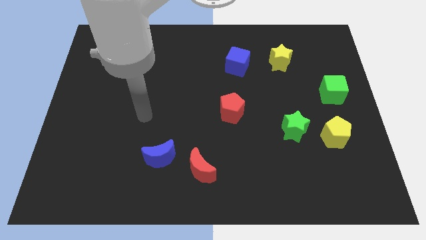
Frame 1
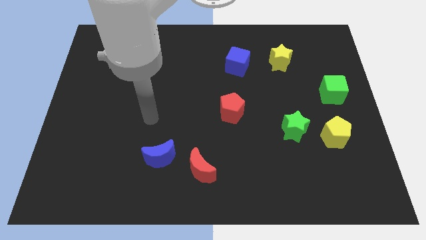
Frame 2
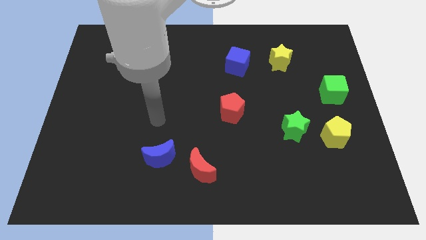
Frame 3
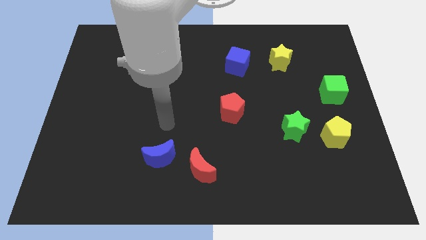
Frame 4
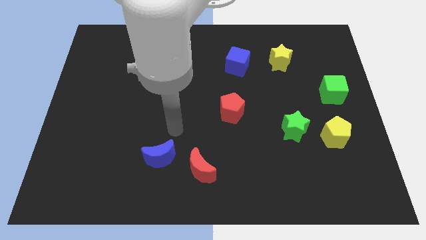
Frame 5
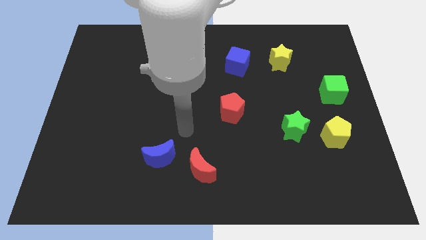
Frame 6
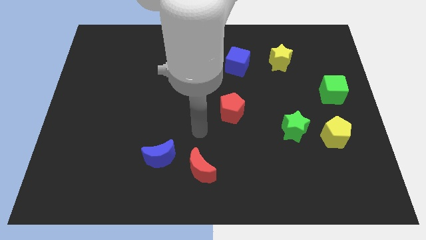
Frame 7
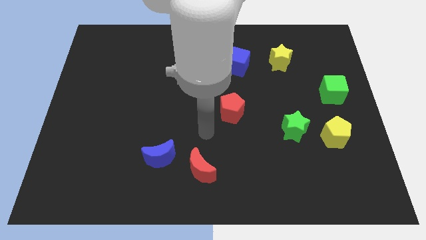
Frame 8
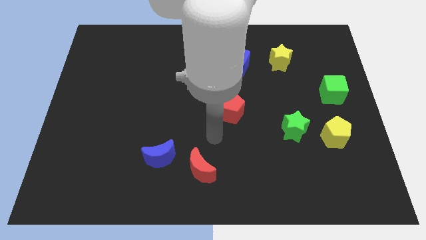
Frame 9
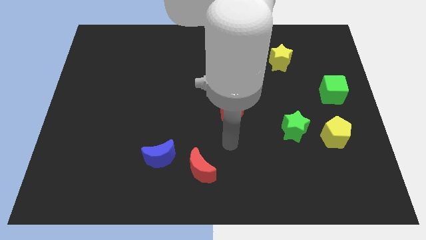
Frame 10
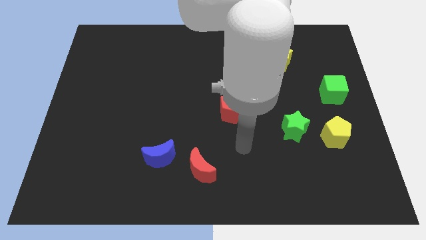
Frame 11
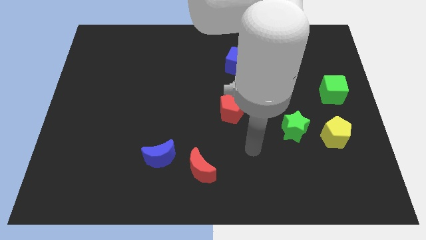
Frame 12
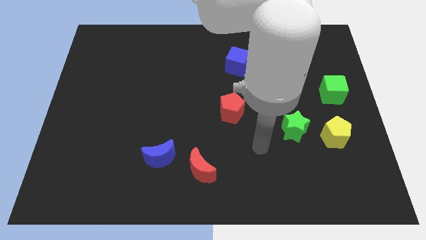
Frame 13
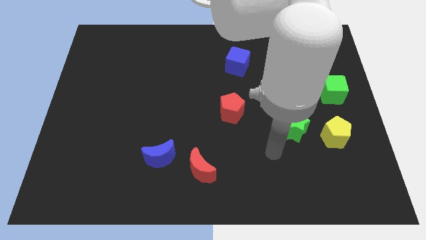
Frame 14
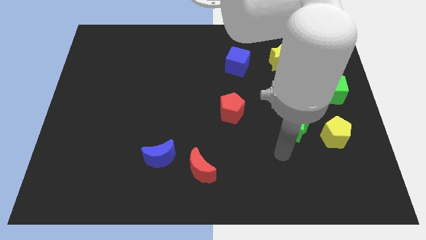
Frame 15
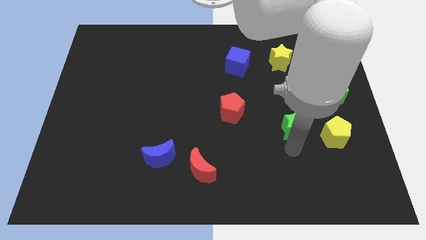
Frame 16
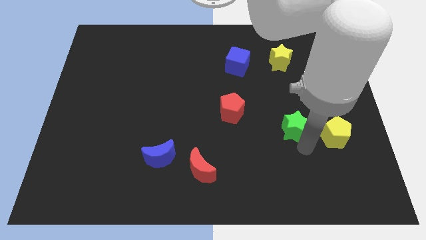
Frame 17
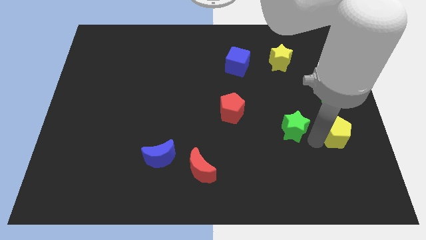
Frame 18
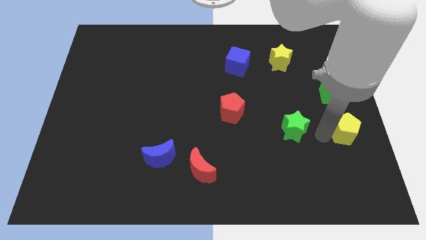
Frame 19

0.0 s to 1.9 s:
move the green star away from the yellow pentagon

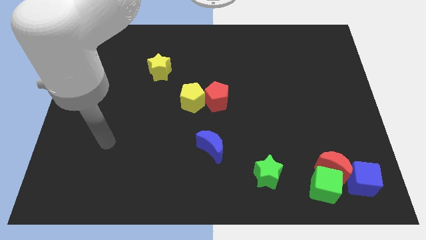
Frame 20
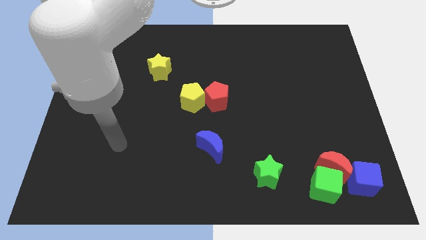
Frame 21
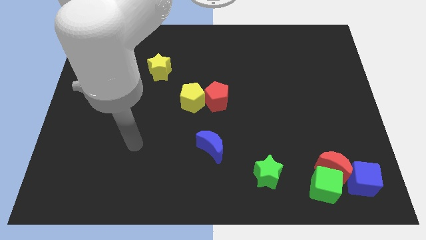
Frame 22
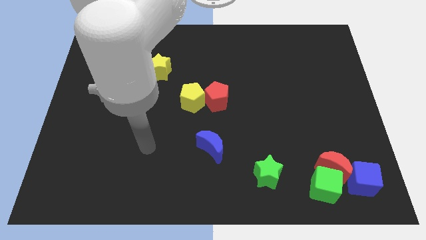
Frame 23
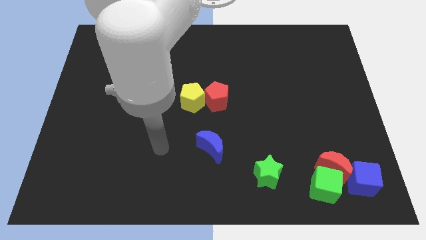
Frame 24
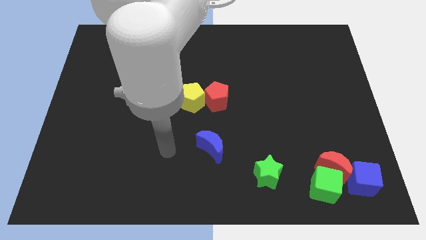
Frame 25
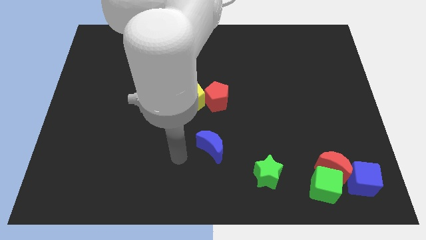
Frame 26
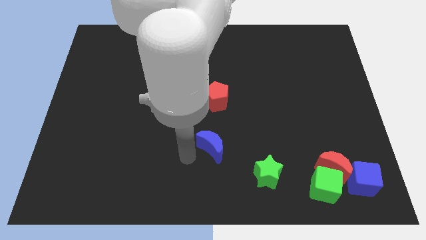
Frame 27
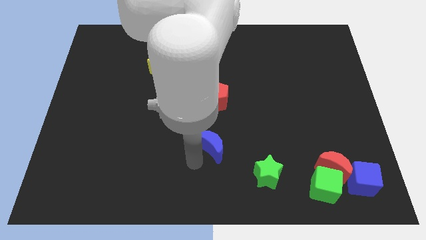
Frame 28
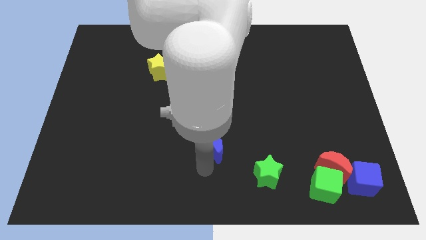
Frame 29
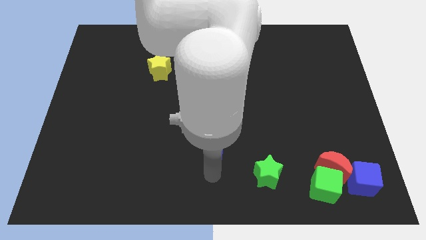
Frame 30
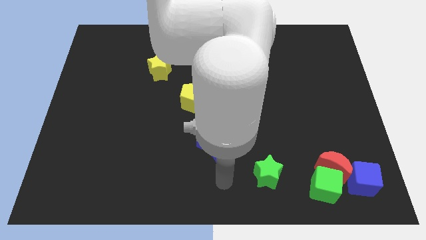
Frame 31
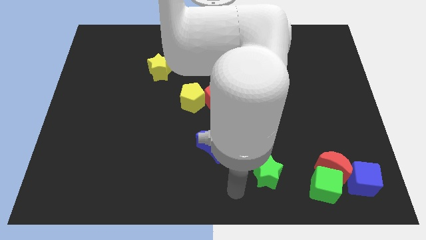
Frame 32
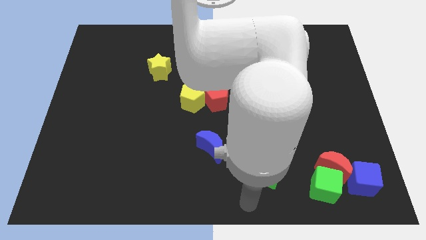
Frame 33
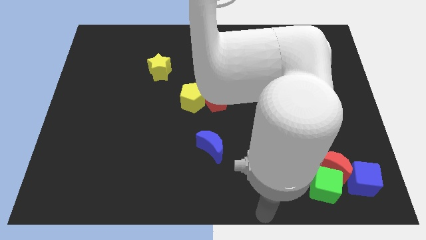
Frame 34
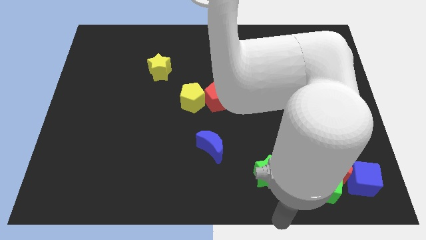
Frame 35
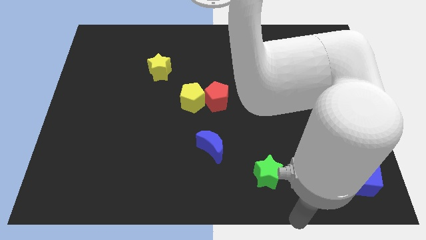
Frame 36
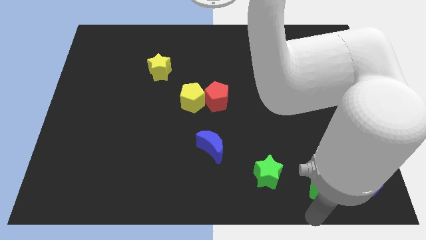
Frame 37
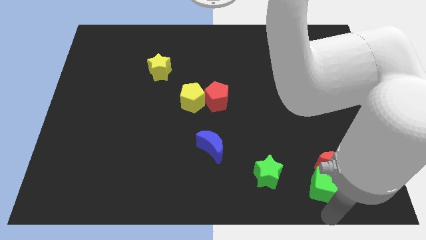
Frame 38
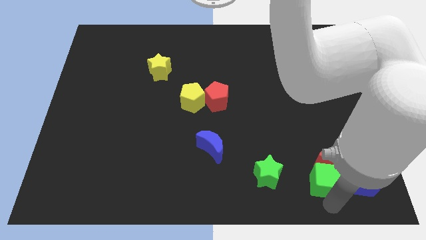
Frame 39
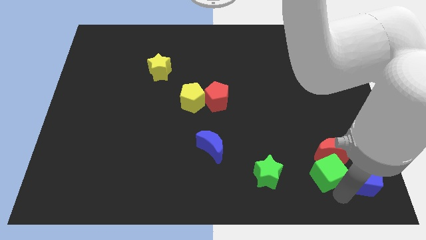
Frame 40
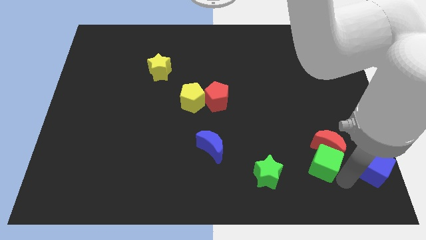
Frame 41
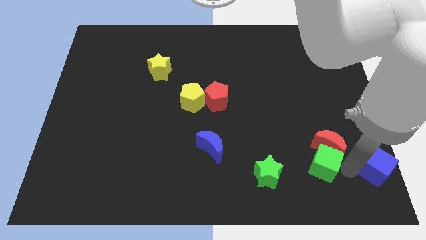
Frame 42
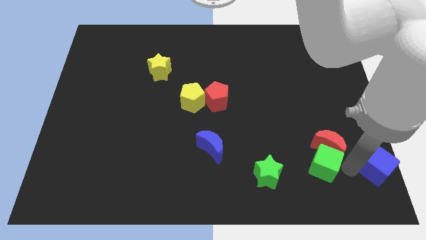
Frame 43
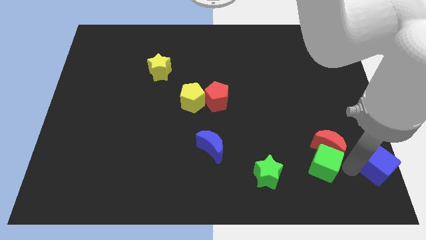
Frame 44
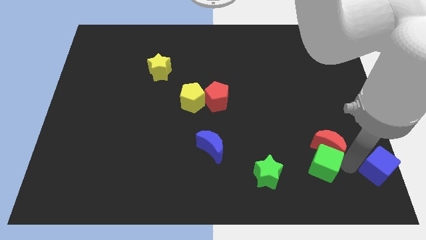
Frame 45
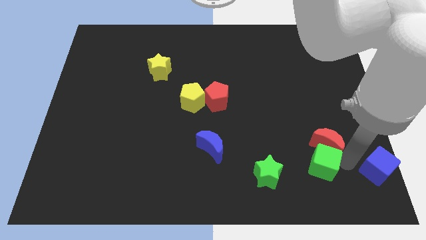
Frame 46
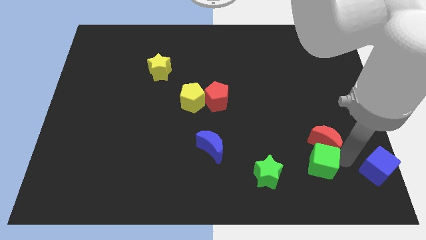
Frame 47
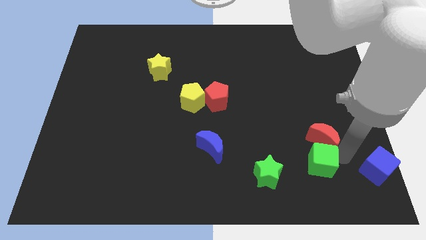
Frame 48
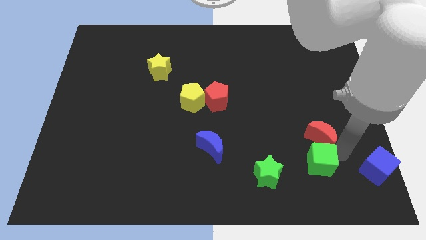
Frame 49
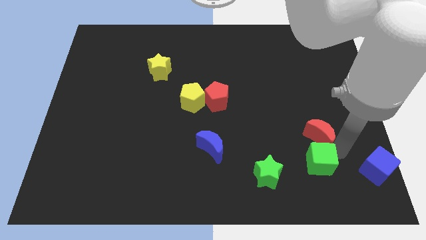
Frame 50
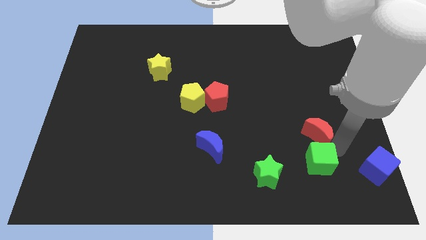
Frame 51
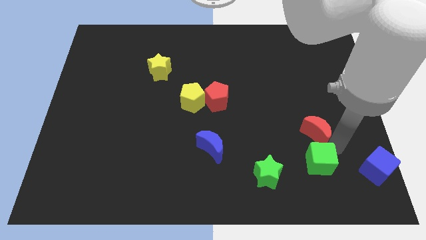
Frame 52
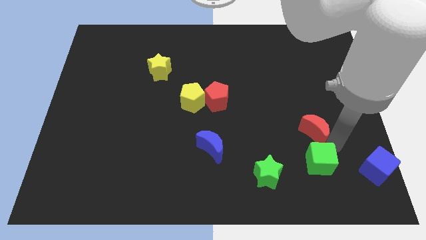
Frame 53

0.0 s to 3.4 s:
move the red moon away from the green cube and blue cube

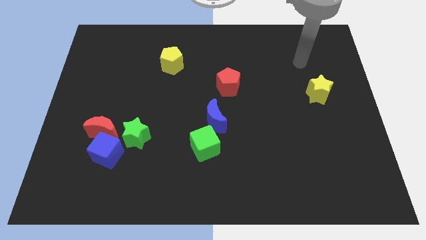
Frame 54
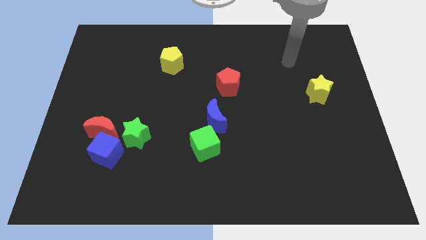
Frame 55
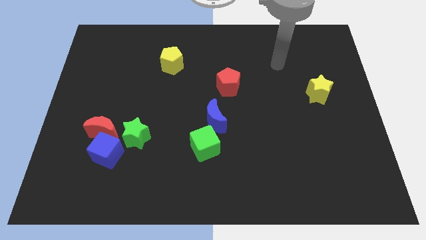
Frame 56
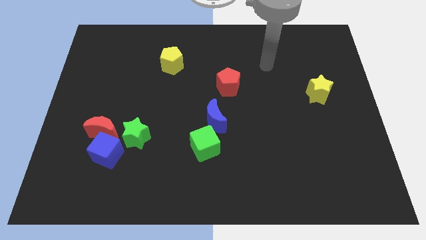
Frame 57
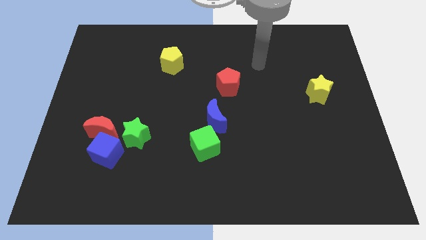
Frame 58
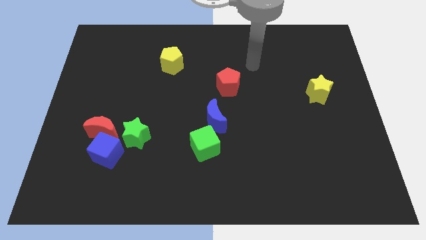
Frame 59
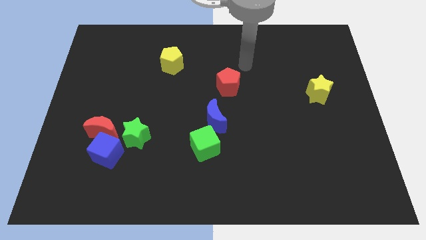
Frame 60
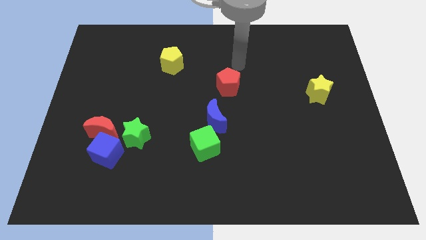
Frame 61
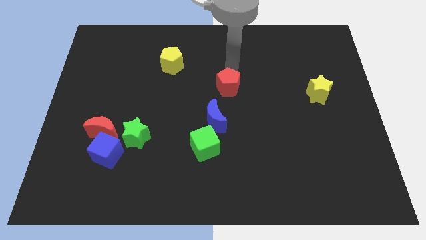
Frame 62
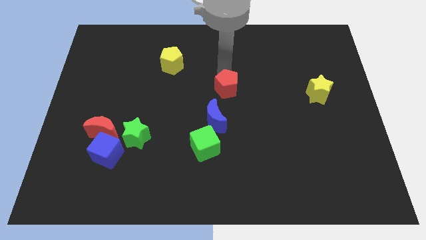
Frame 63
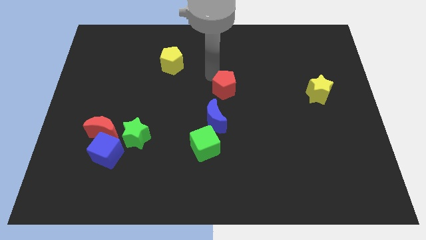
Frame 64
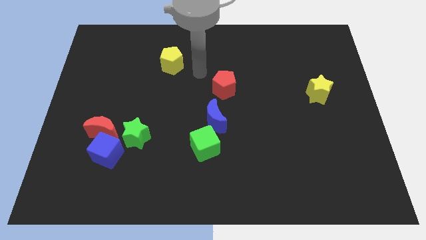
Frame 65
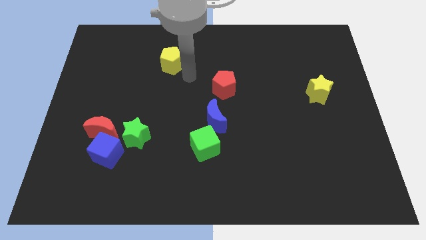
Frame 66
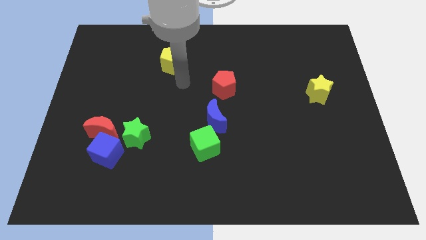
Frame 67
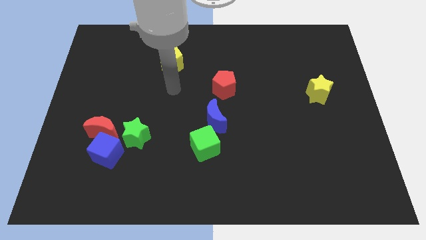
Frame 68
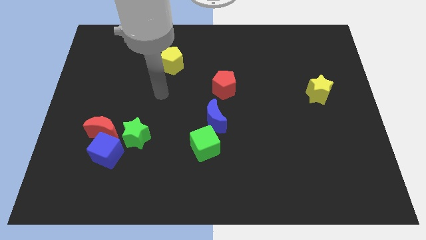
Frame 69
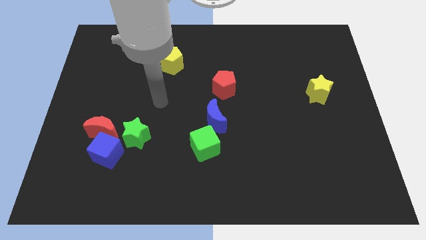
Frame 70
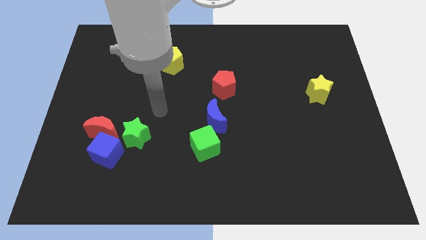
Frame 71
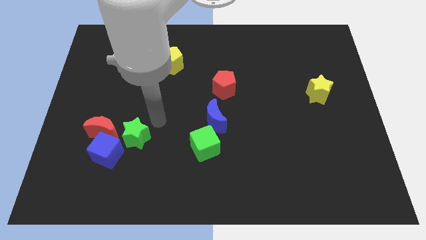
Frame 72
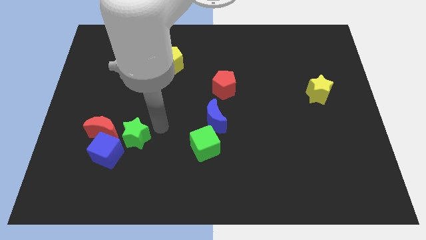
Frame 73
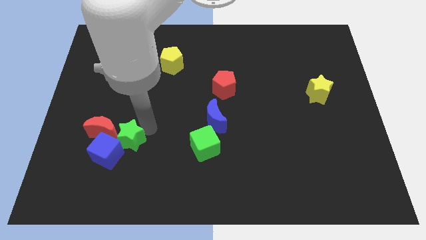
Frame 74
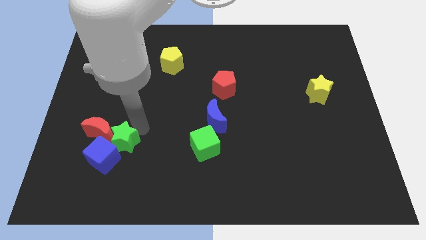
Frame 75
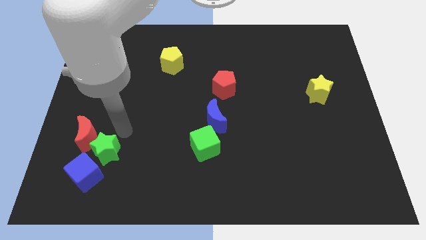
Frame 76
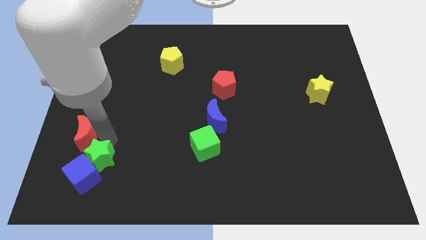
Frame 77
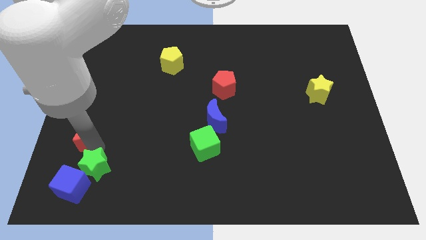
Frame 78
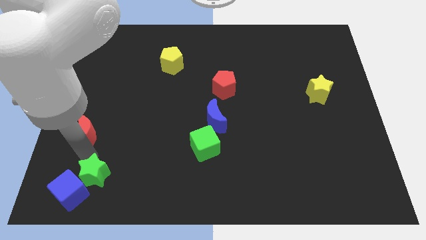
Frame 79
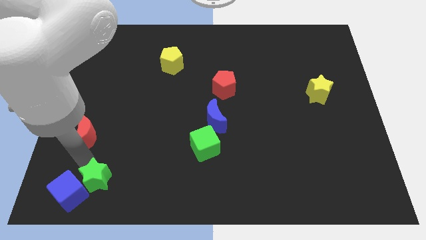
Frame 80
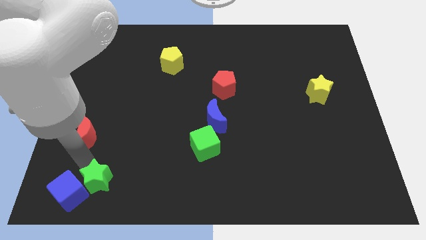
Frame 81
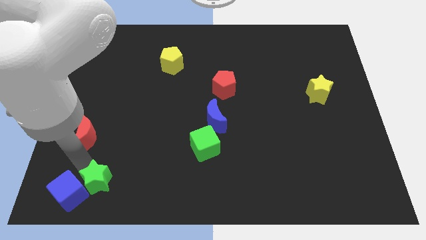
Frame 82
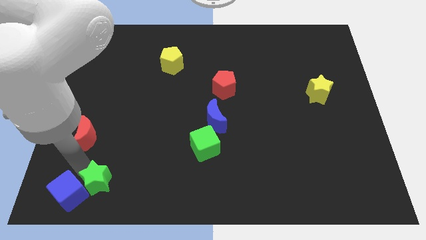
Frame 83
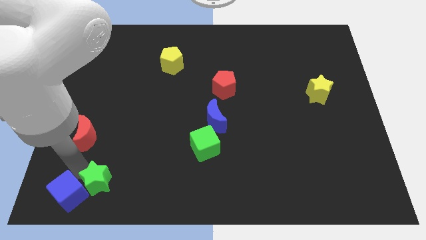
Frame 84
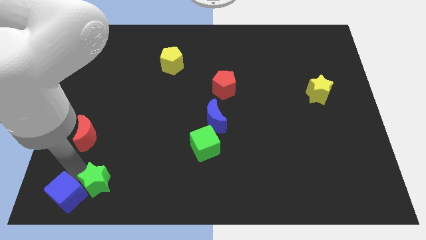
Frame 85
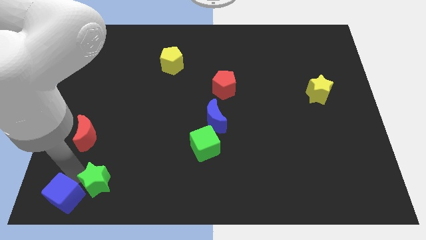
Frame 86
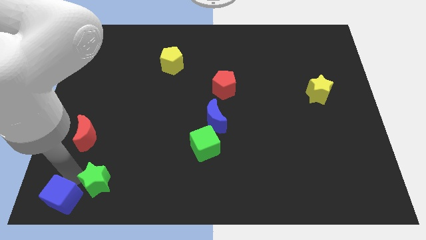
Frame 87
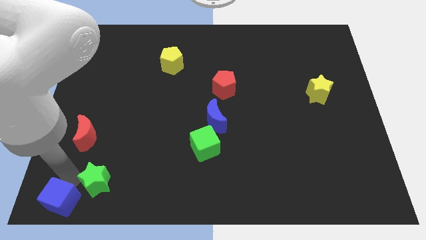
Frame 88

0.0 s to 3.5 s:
move the blue cube away from the red moon and green star

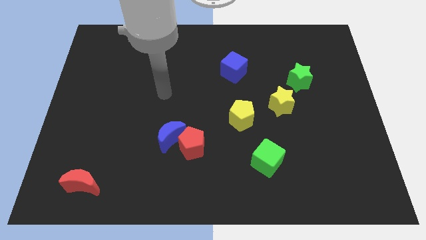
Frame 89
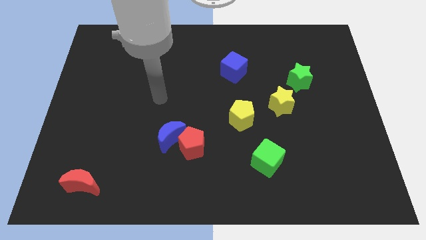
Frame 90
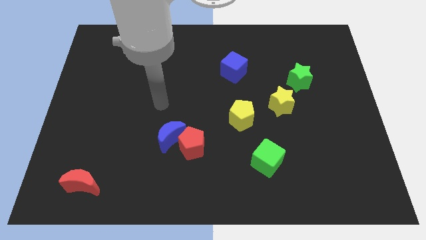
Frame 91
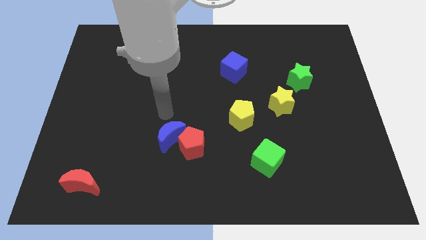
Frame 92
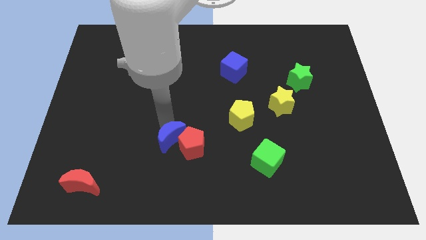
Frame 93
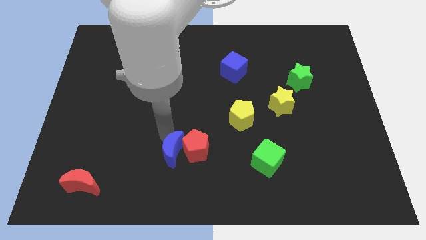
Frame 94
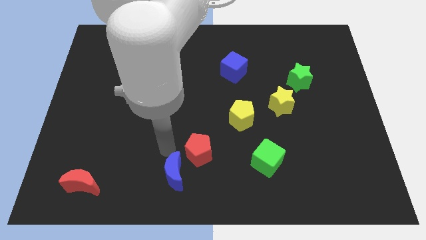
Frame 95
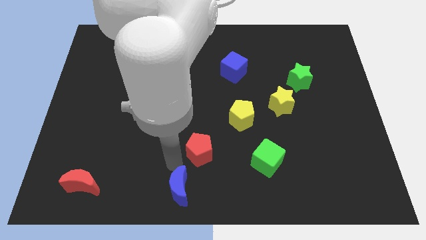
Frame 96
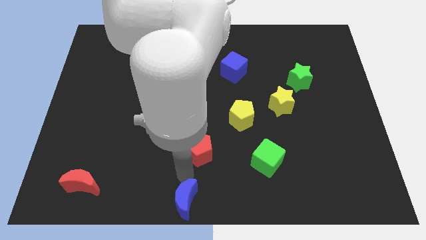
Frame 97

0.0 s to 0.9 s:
move the red pentagon away from the blue moon
